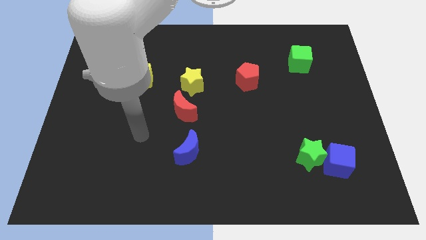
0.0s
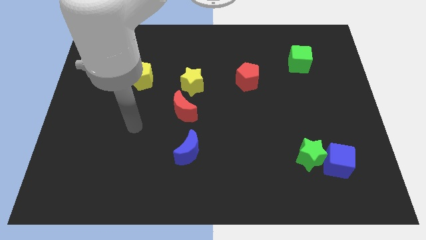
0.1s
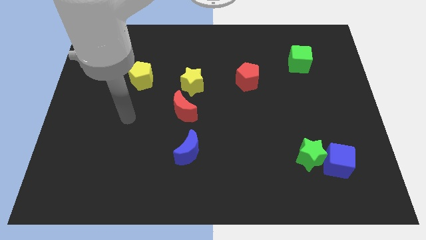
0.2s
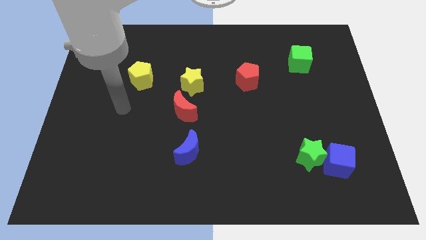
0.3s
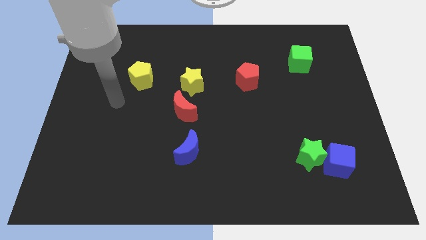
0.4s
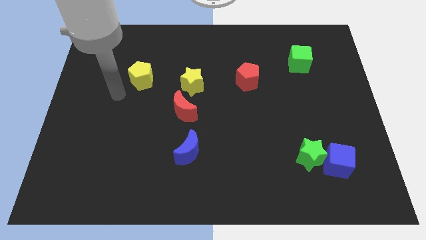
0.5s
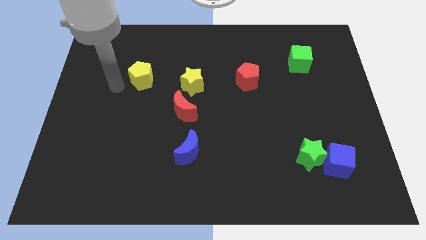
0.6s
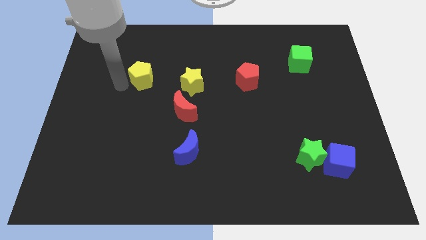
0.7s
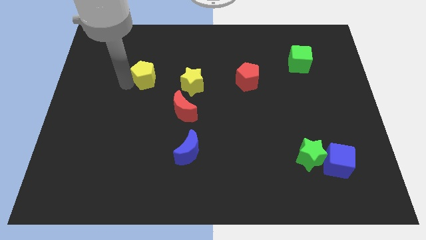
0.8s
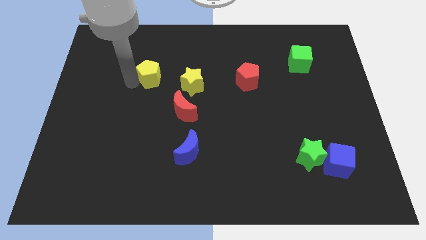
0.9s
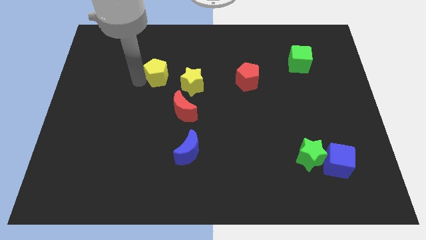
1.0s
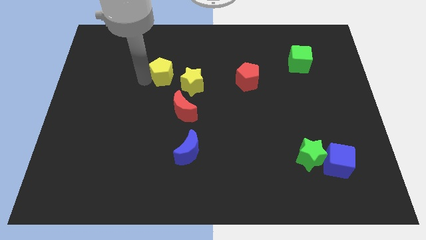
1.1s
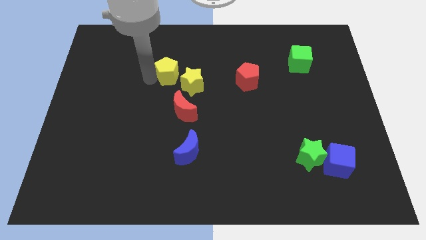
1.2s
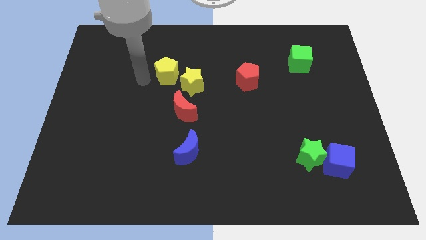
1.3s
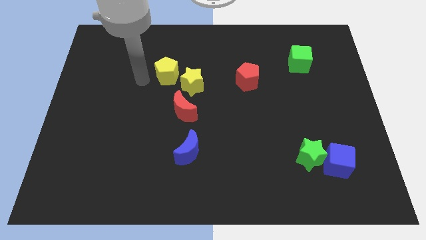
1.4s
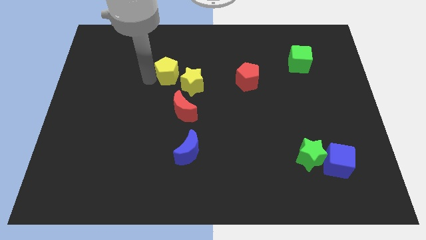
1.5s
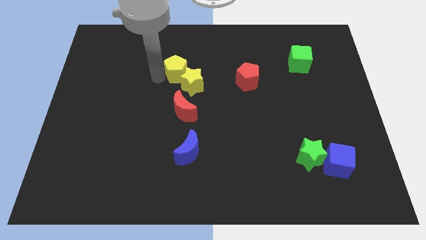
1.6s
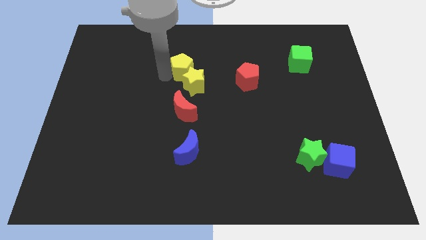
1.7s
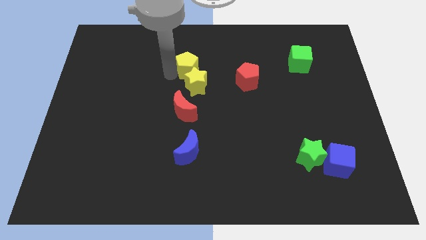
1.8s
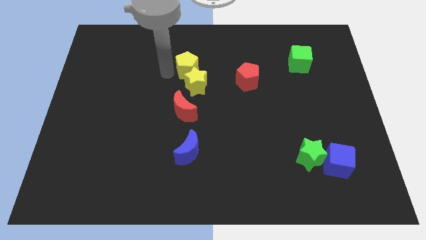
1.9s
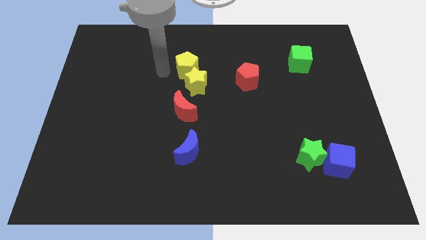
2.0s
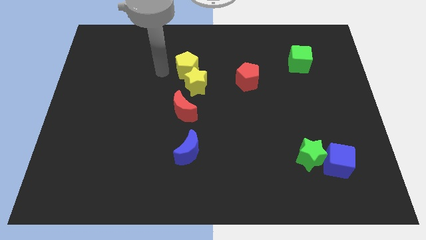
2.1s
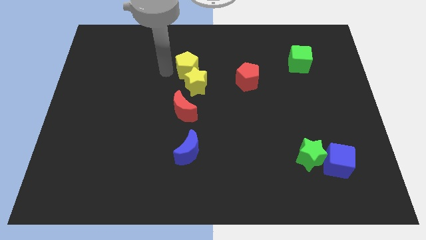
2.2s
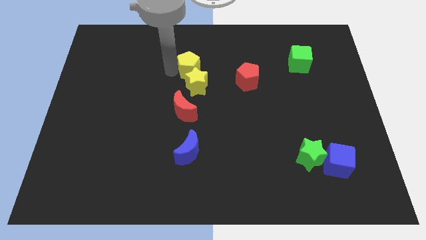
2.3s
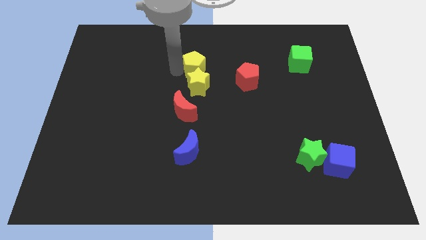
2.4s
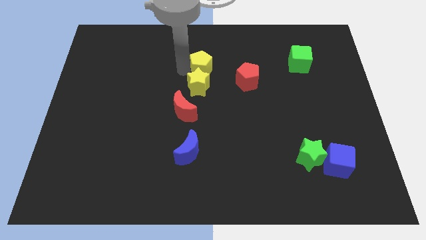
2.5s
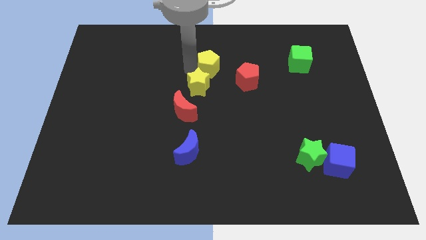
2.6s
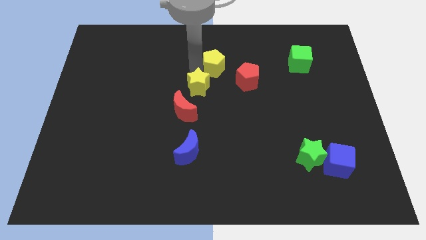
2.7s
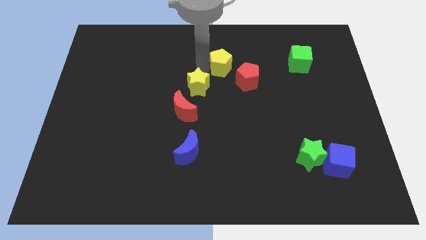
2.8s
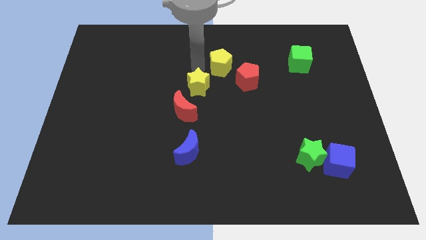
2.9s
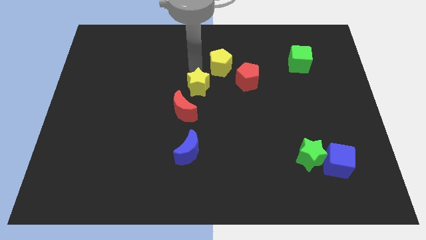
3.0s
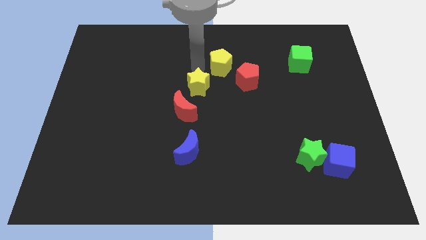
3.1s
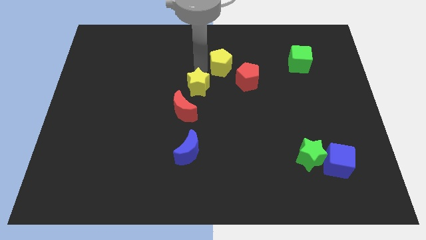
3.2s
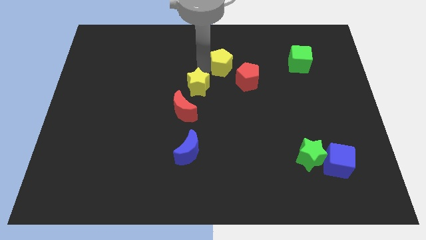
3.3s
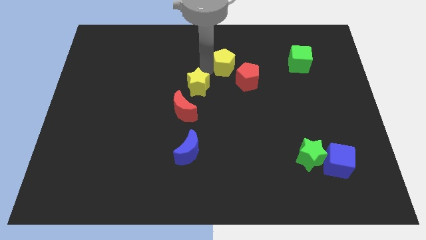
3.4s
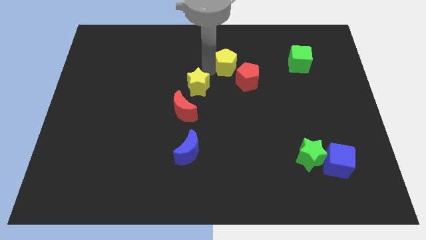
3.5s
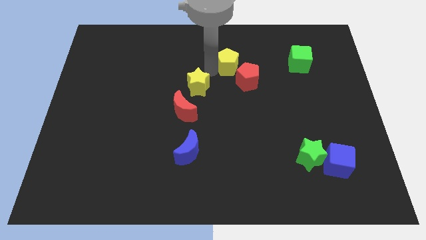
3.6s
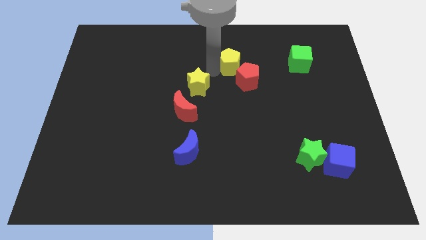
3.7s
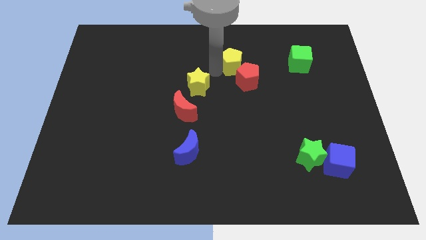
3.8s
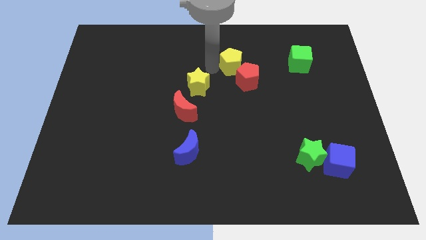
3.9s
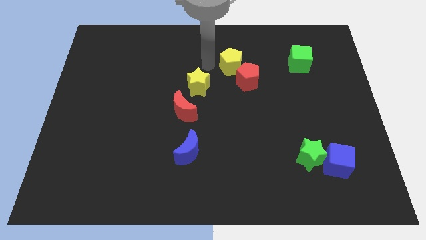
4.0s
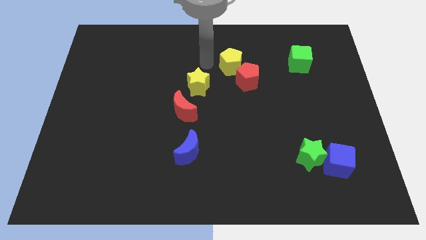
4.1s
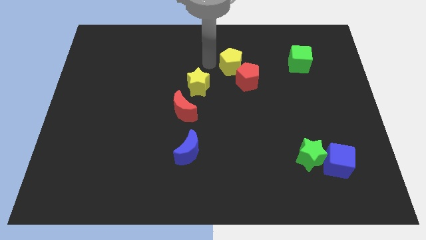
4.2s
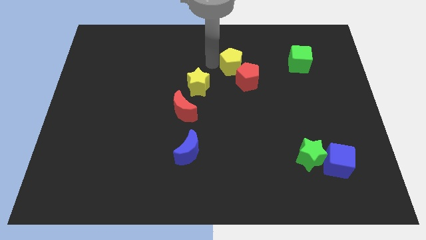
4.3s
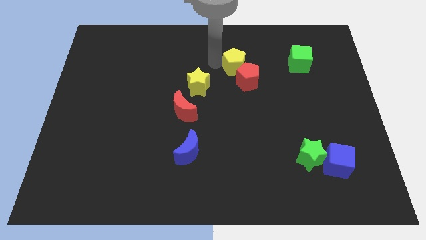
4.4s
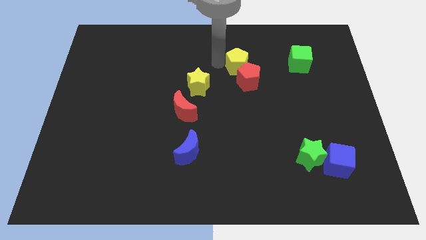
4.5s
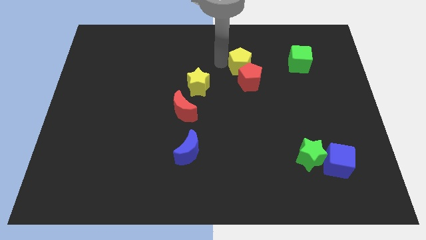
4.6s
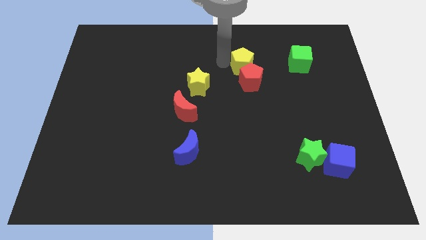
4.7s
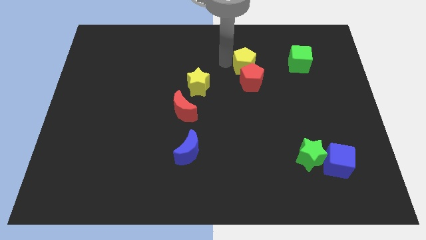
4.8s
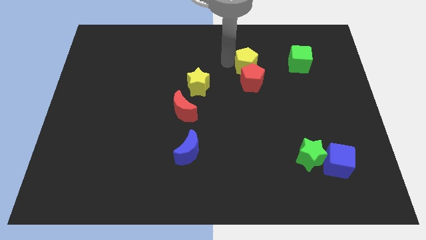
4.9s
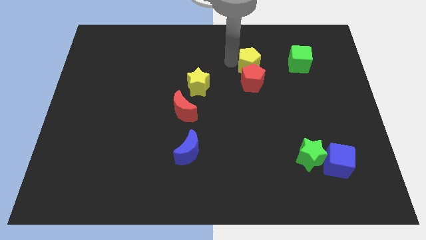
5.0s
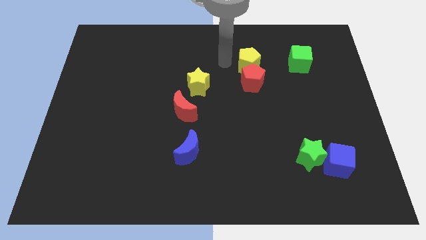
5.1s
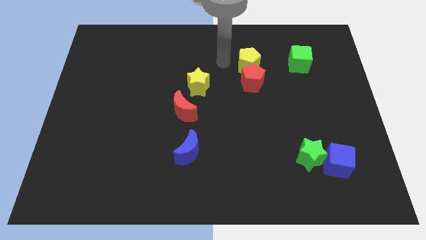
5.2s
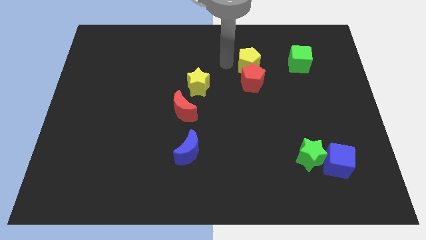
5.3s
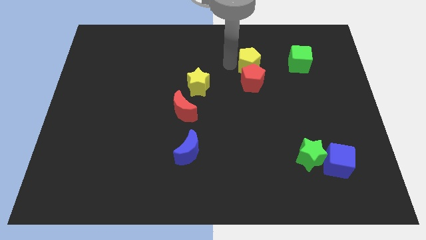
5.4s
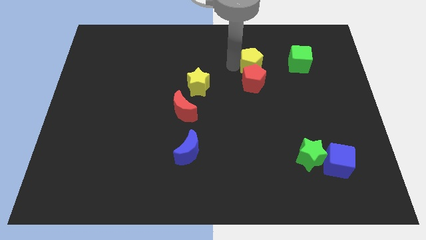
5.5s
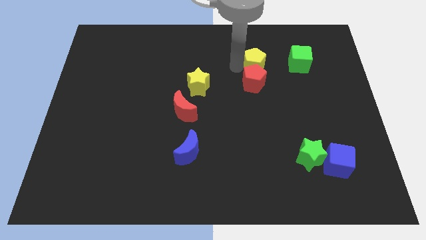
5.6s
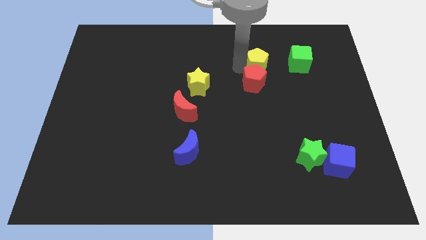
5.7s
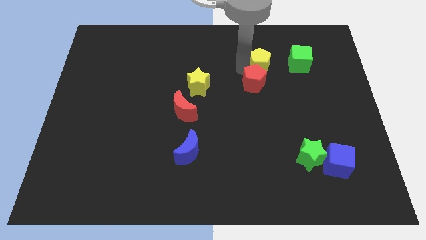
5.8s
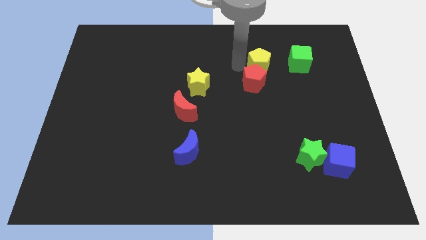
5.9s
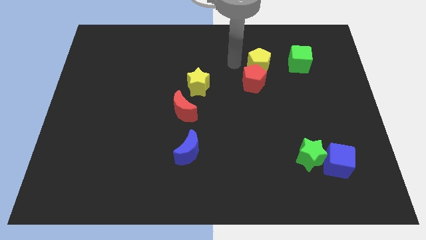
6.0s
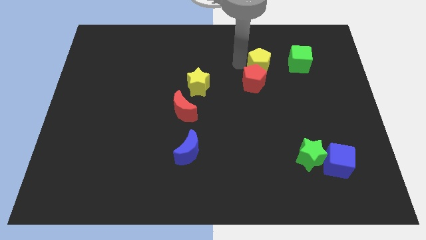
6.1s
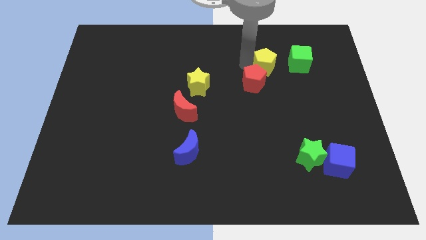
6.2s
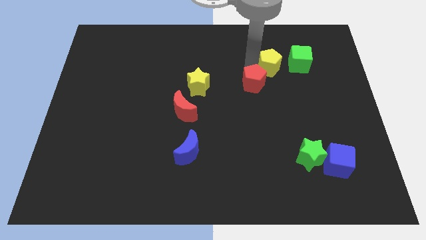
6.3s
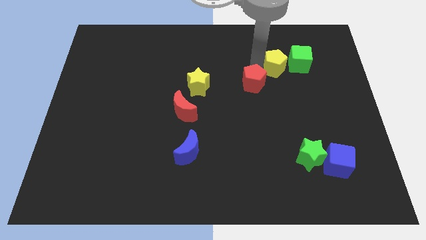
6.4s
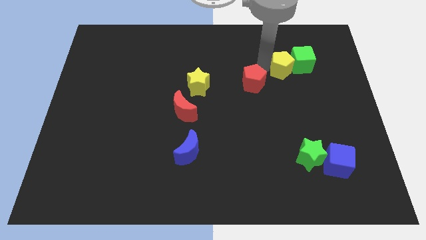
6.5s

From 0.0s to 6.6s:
push the yellow pentagon close to the green cube

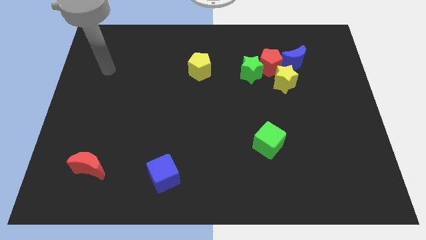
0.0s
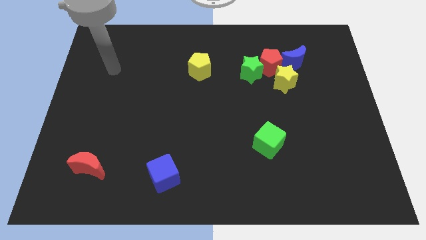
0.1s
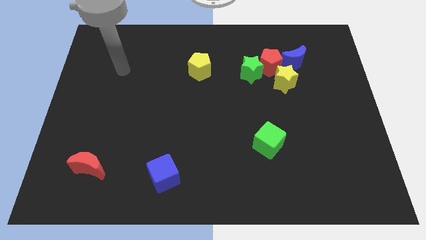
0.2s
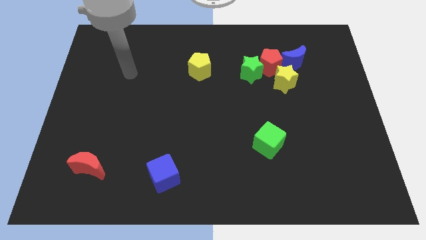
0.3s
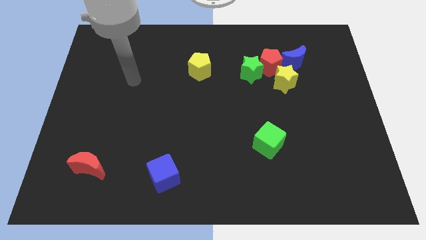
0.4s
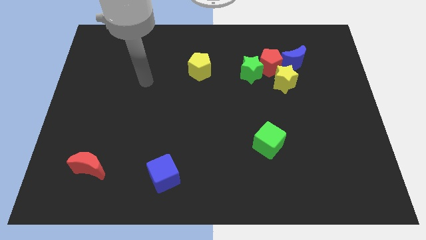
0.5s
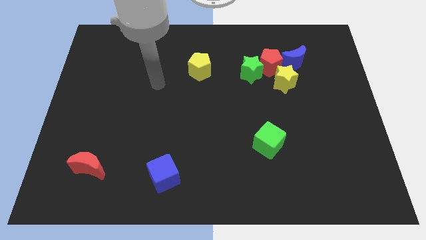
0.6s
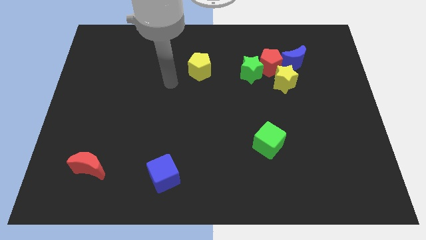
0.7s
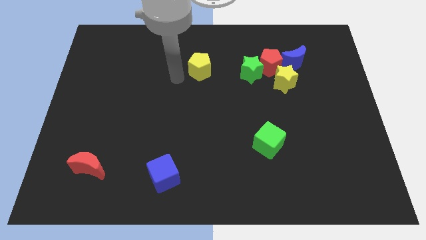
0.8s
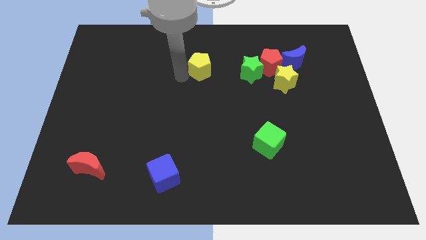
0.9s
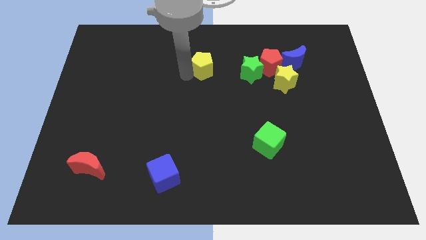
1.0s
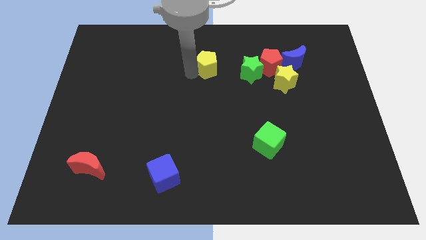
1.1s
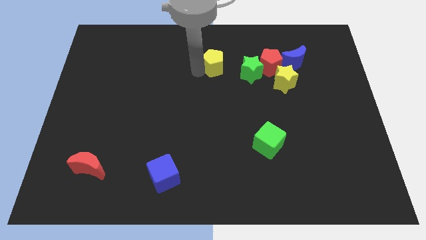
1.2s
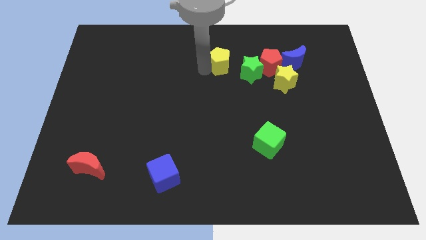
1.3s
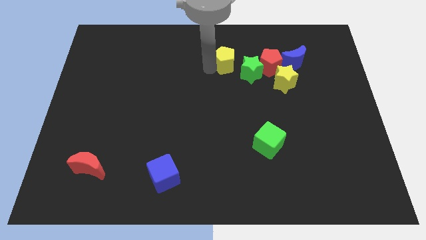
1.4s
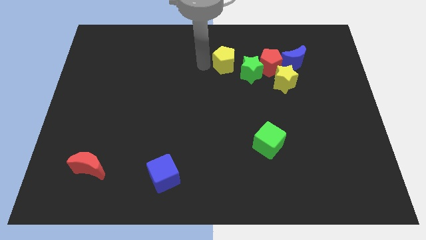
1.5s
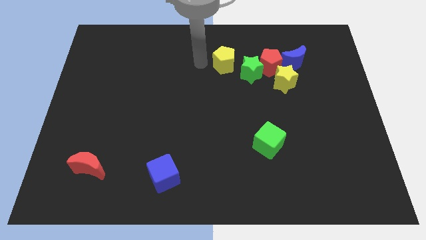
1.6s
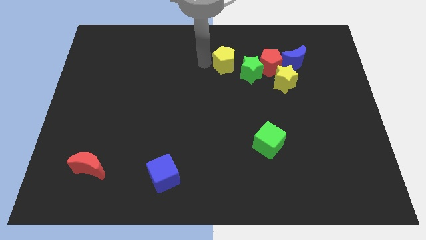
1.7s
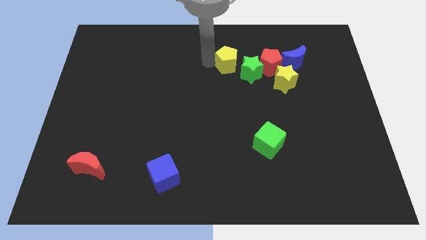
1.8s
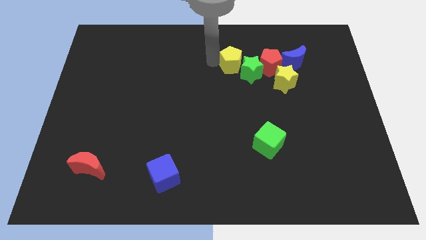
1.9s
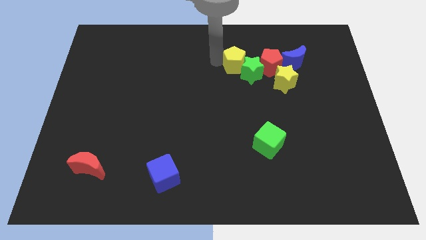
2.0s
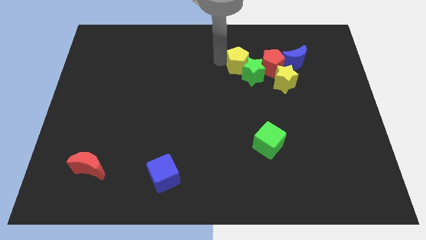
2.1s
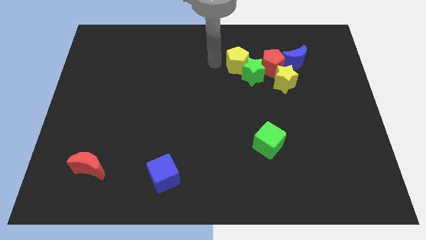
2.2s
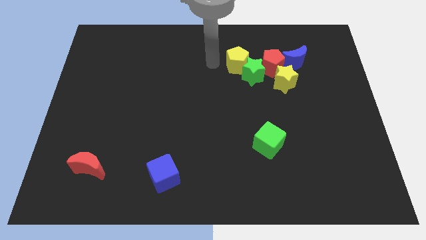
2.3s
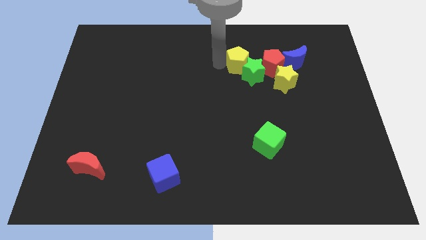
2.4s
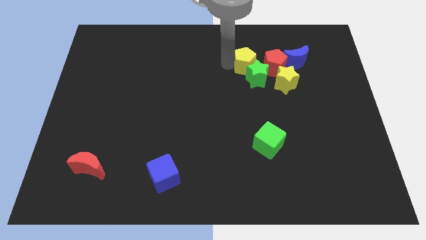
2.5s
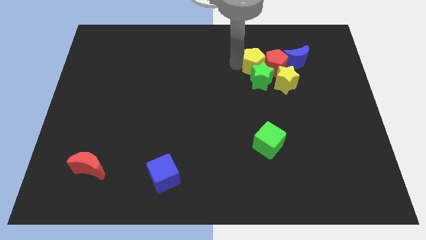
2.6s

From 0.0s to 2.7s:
put the yellow pentagon to the red pentagon
